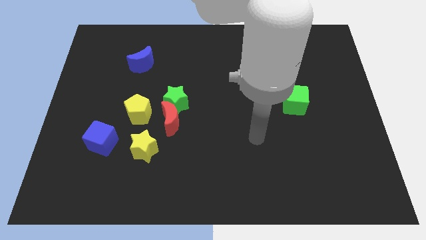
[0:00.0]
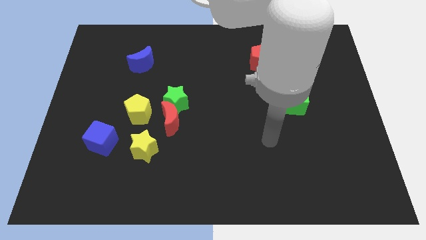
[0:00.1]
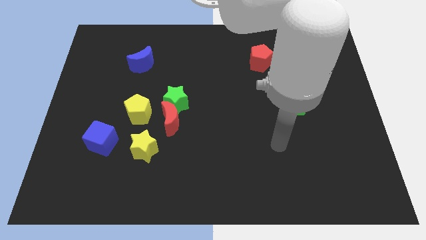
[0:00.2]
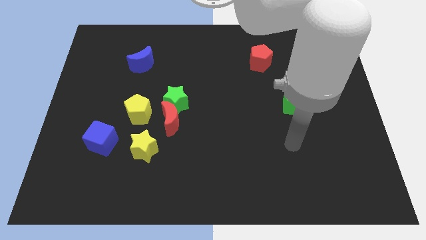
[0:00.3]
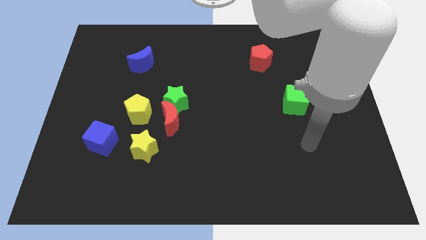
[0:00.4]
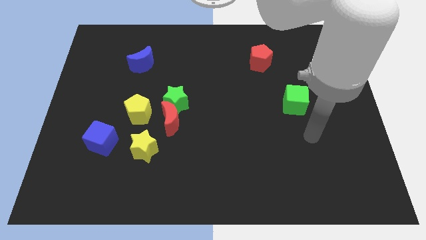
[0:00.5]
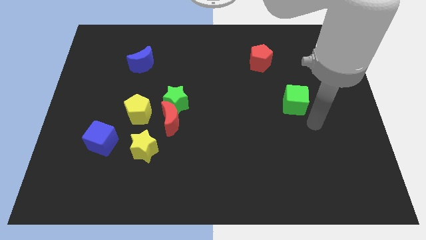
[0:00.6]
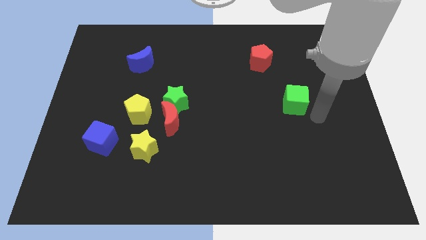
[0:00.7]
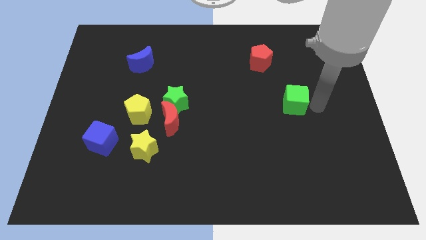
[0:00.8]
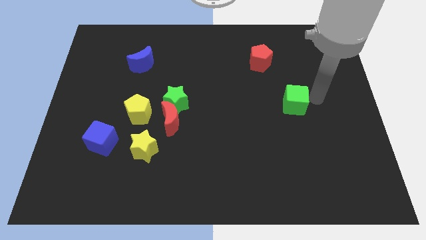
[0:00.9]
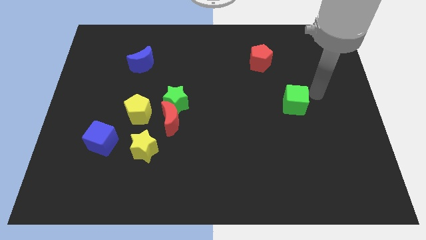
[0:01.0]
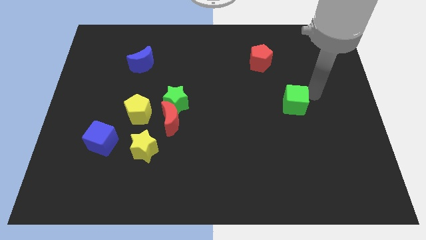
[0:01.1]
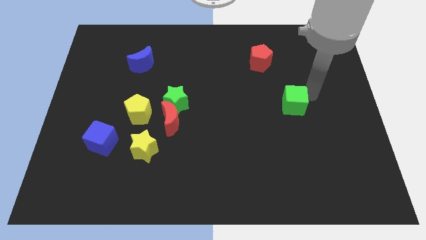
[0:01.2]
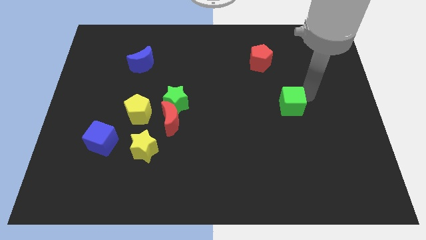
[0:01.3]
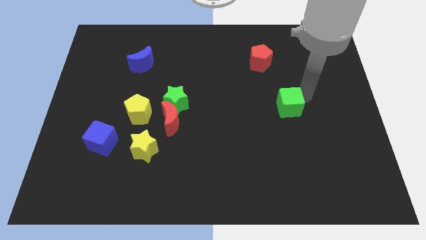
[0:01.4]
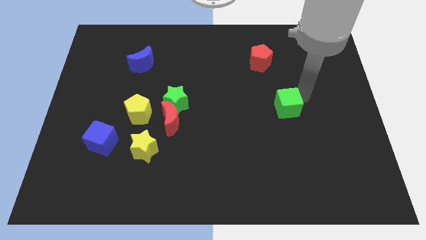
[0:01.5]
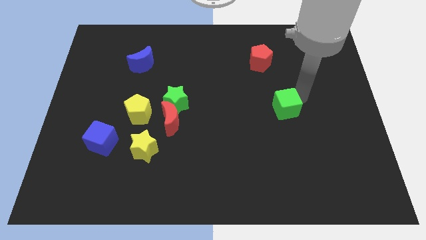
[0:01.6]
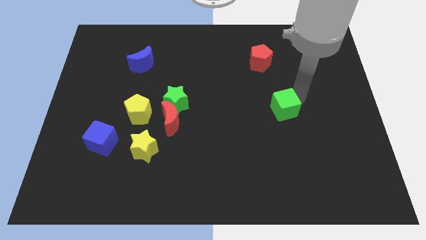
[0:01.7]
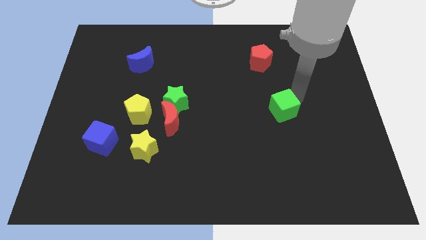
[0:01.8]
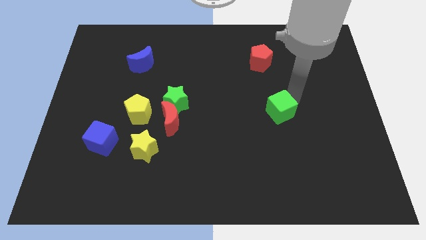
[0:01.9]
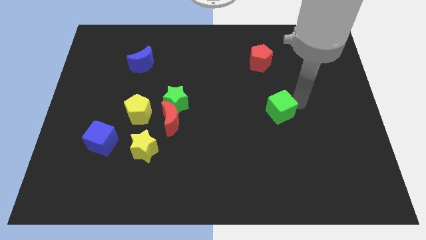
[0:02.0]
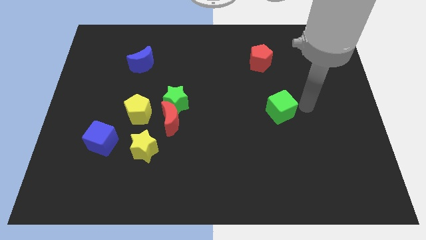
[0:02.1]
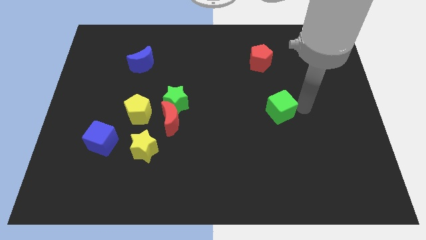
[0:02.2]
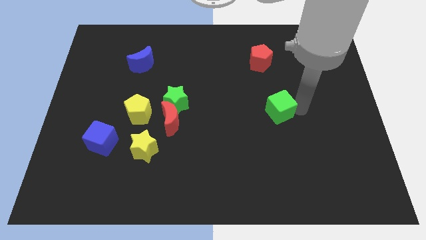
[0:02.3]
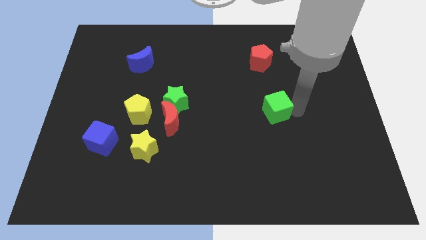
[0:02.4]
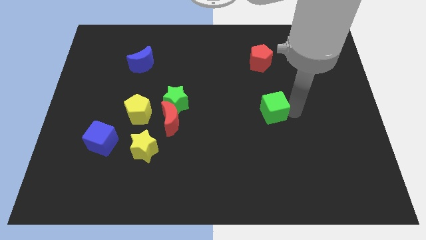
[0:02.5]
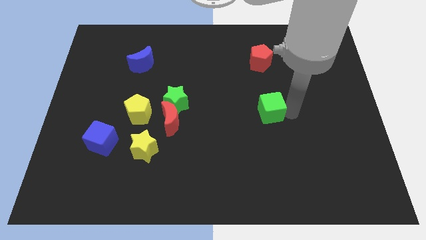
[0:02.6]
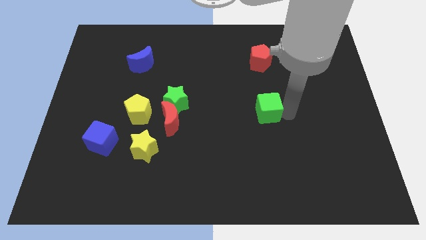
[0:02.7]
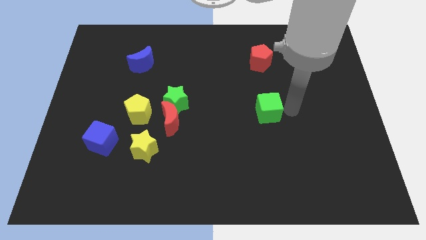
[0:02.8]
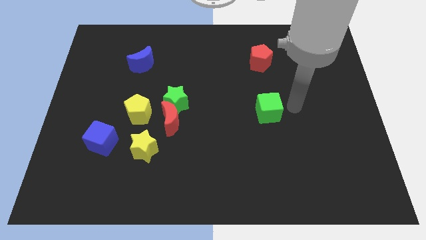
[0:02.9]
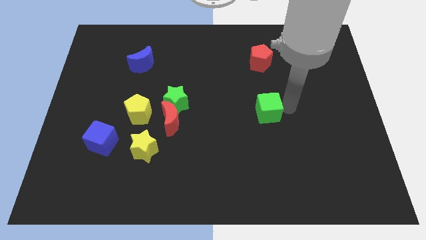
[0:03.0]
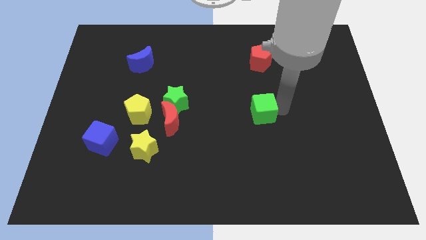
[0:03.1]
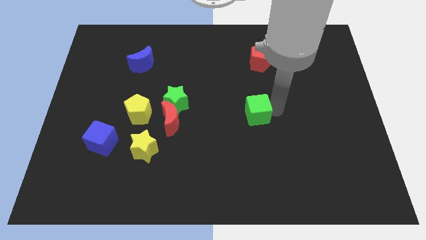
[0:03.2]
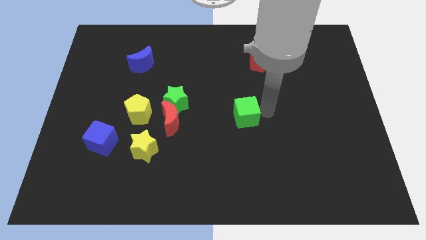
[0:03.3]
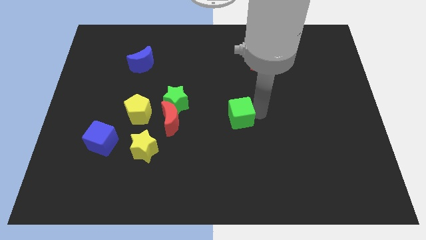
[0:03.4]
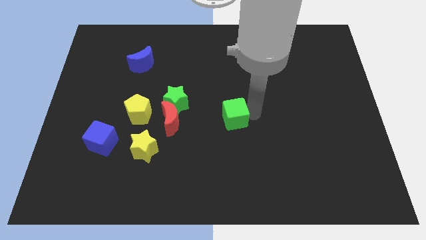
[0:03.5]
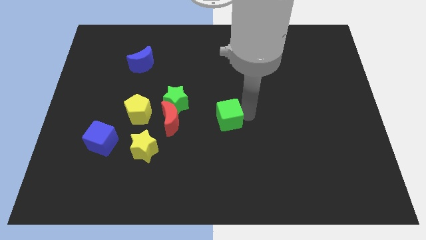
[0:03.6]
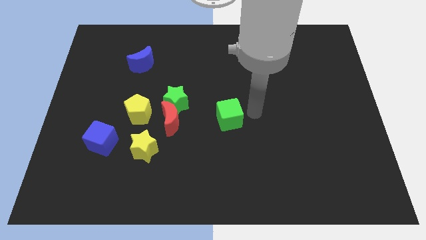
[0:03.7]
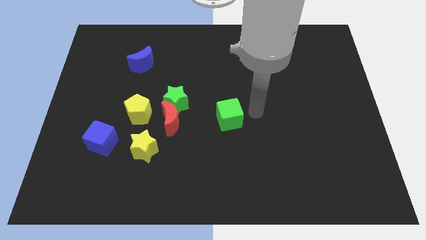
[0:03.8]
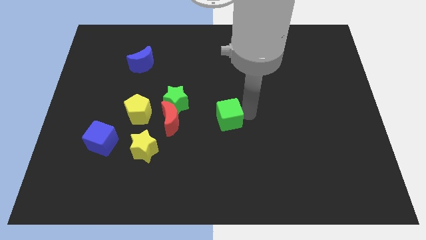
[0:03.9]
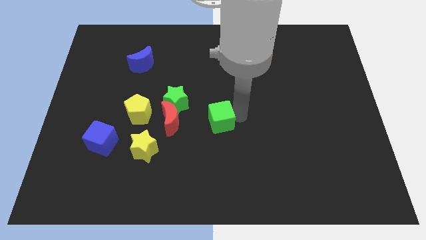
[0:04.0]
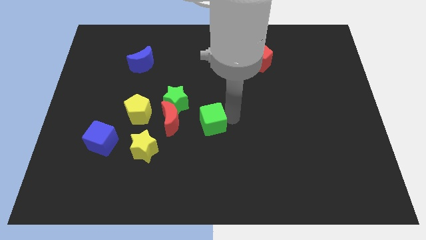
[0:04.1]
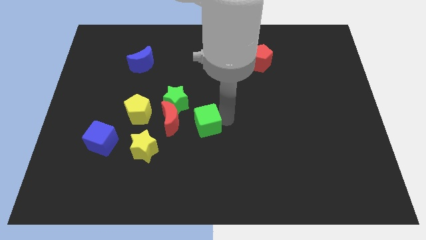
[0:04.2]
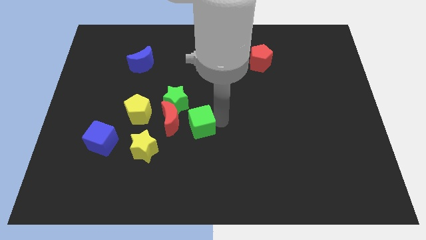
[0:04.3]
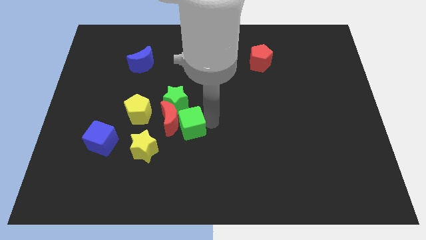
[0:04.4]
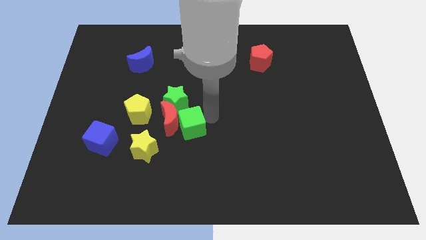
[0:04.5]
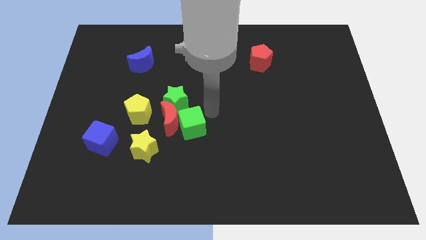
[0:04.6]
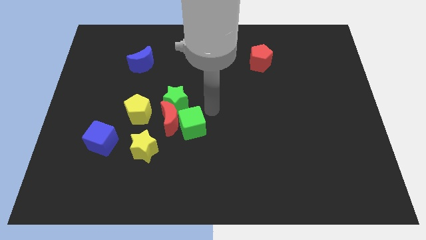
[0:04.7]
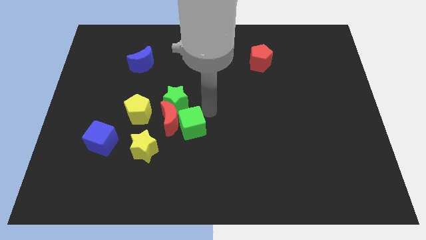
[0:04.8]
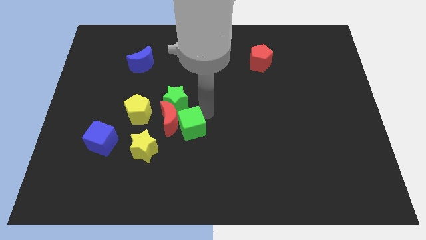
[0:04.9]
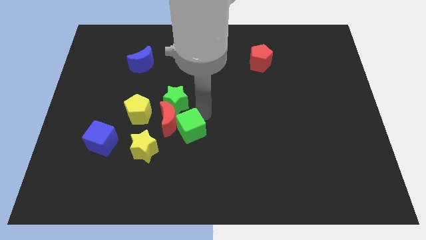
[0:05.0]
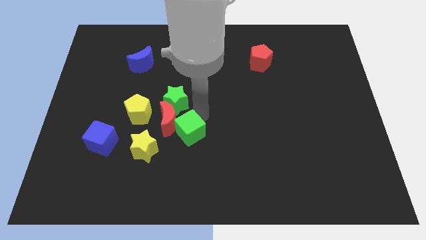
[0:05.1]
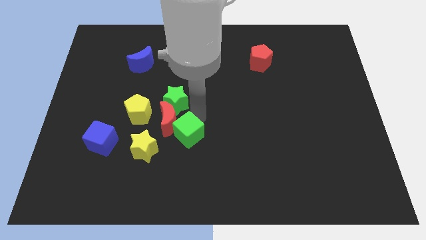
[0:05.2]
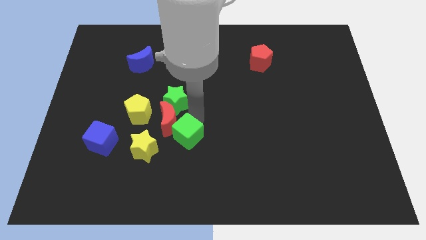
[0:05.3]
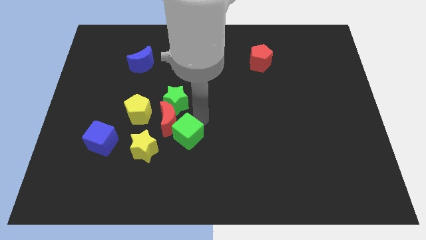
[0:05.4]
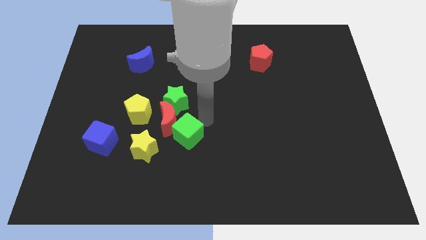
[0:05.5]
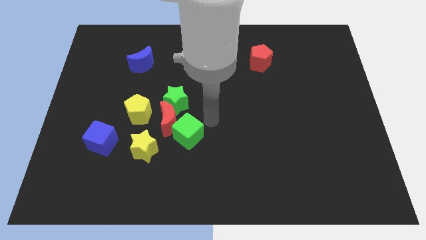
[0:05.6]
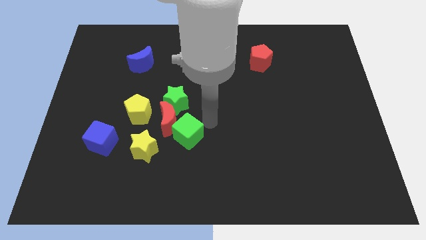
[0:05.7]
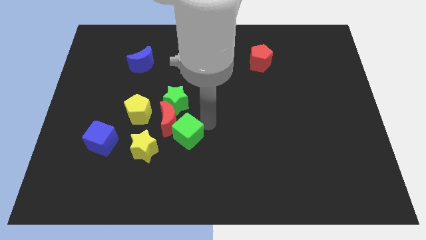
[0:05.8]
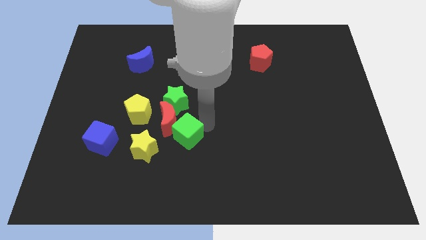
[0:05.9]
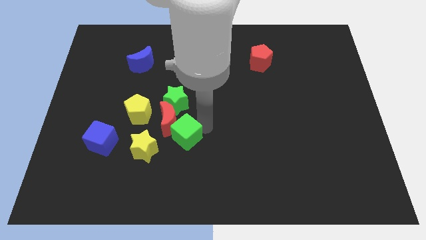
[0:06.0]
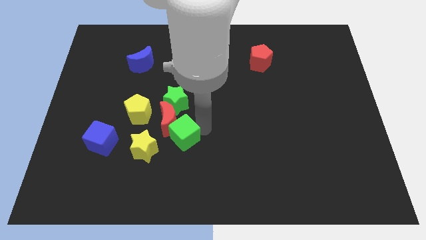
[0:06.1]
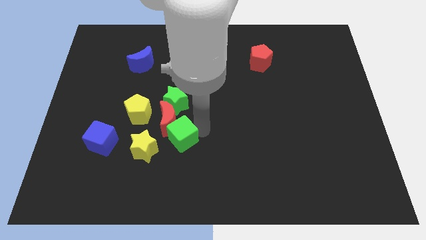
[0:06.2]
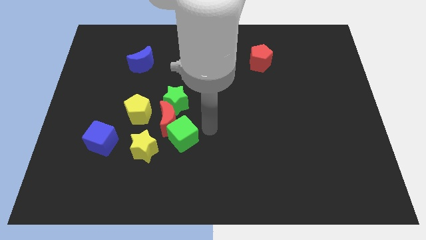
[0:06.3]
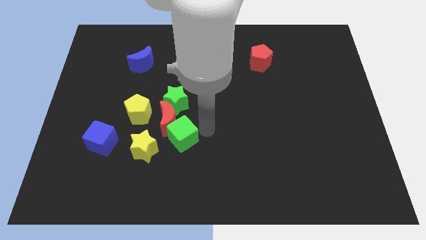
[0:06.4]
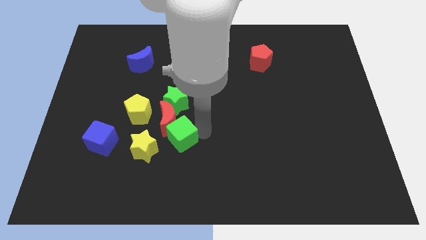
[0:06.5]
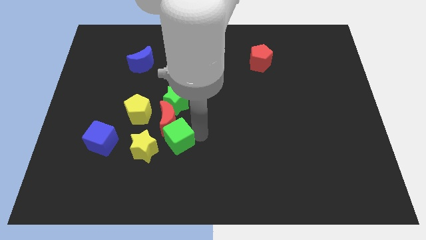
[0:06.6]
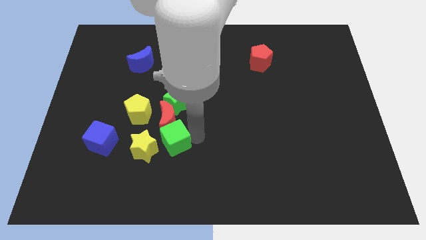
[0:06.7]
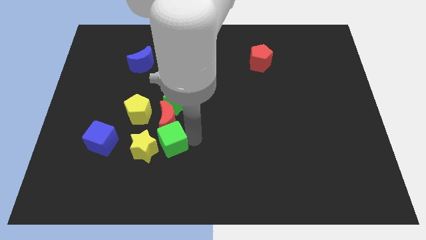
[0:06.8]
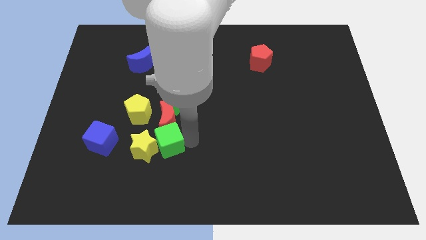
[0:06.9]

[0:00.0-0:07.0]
push the green cube to the yellow star

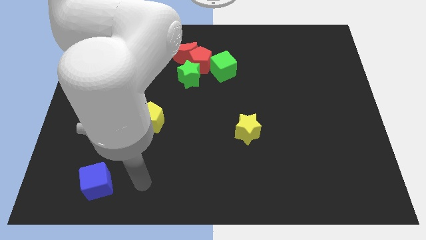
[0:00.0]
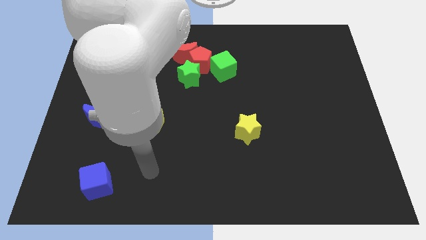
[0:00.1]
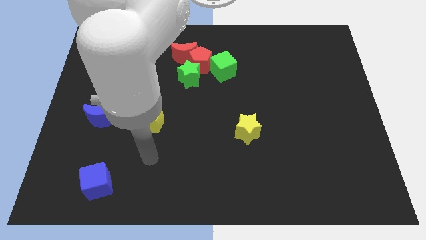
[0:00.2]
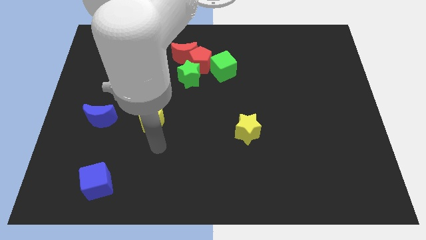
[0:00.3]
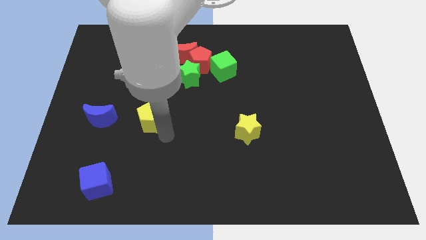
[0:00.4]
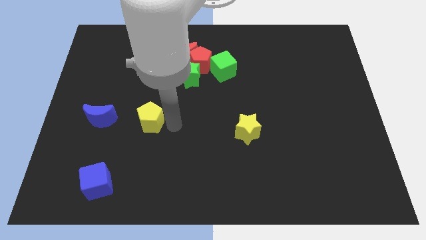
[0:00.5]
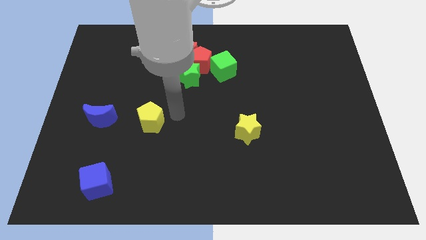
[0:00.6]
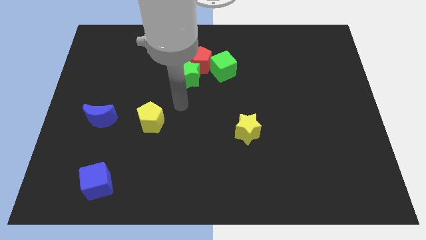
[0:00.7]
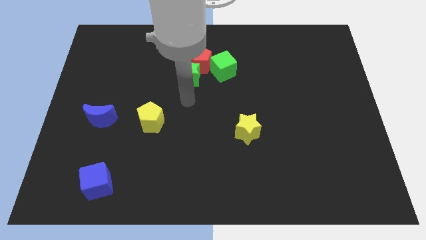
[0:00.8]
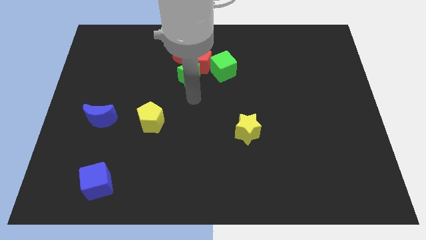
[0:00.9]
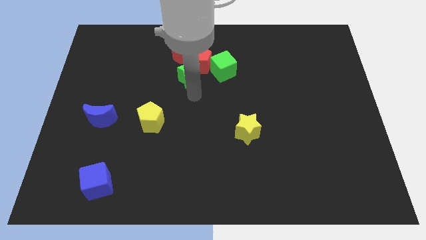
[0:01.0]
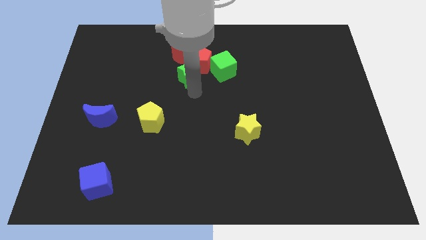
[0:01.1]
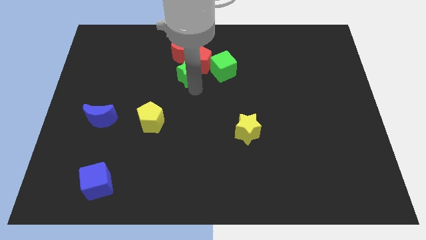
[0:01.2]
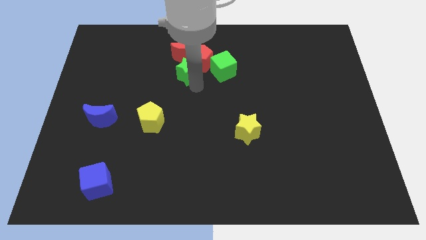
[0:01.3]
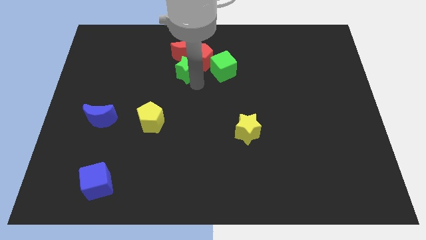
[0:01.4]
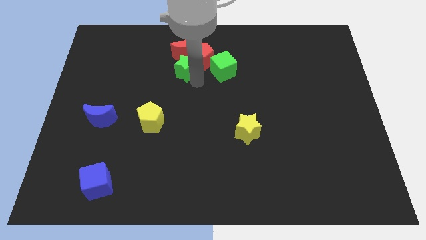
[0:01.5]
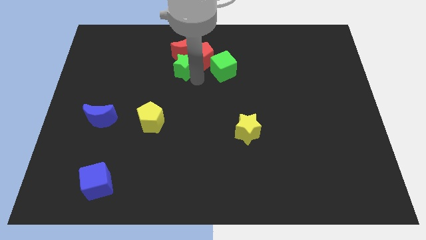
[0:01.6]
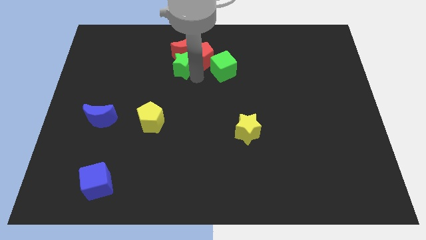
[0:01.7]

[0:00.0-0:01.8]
move the green star to the red moon
